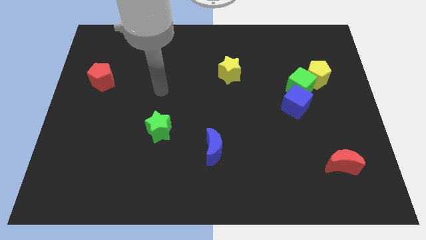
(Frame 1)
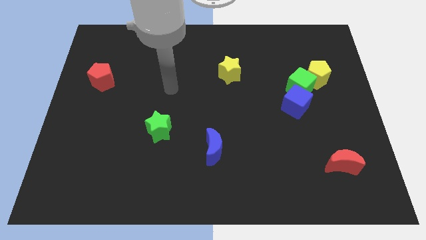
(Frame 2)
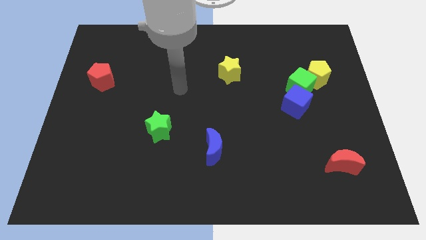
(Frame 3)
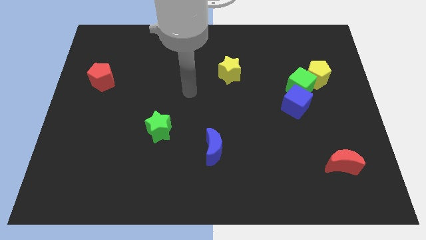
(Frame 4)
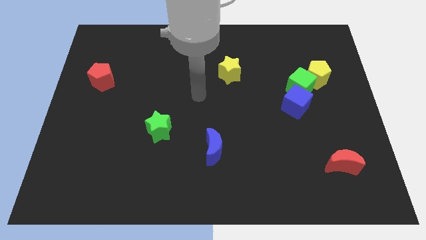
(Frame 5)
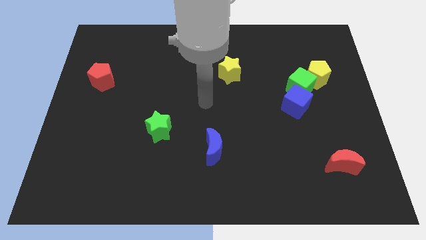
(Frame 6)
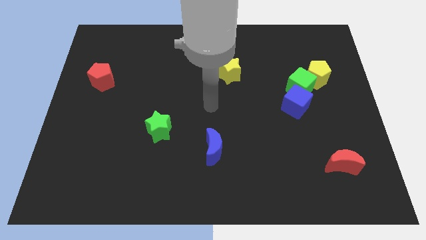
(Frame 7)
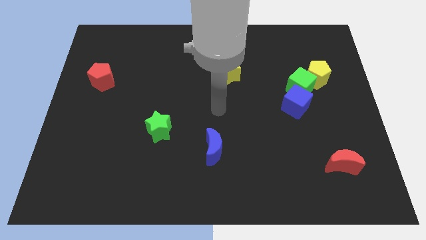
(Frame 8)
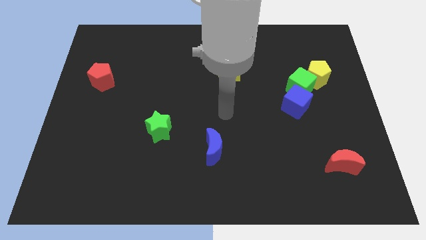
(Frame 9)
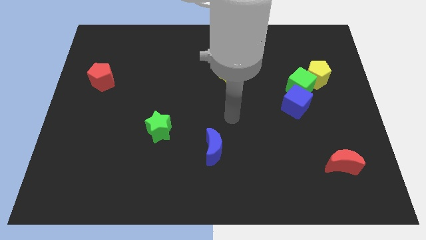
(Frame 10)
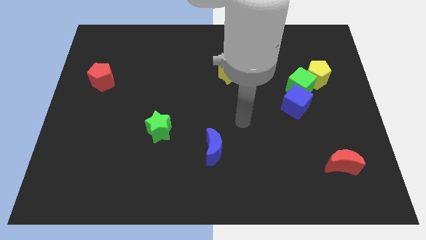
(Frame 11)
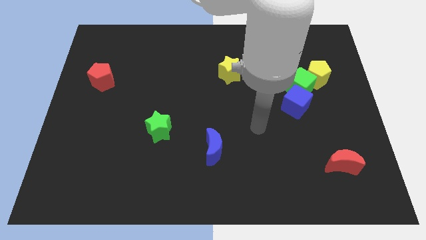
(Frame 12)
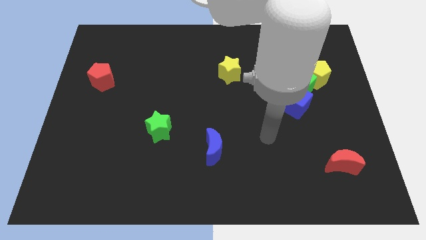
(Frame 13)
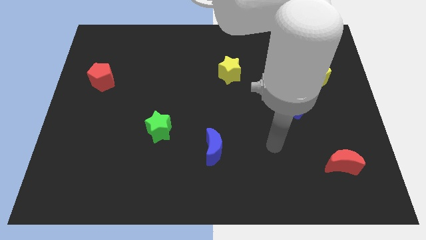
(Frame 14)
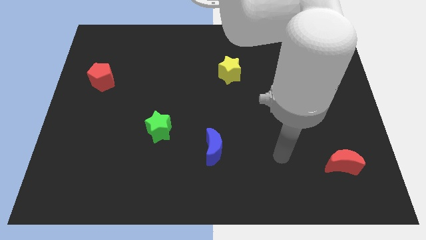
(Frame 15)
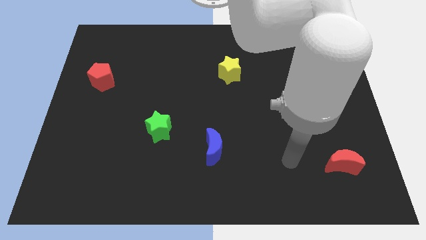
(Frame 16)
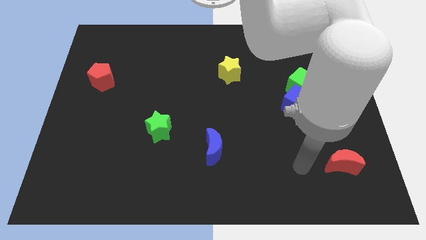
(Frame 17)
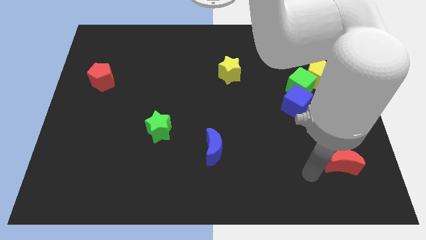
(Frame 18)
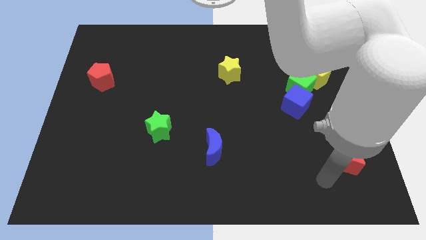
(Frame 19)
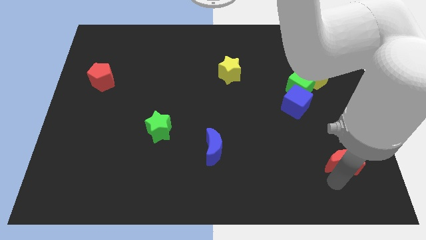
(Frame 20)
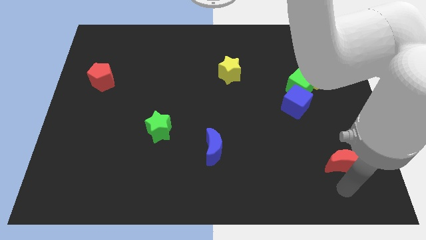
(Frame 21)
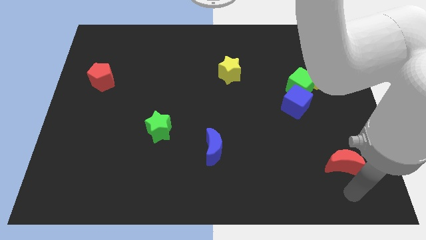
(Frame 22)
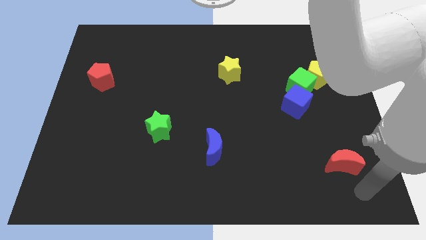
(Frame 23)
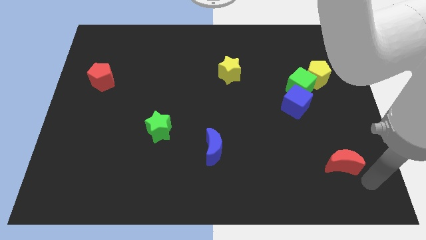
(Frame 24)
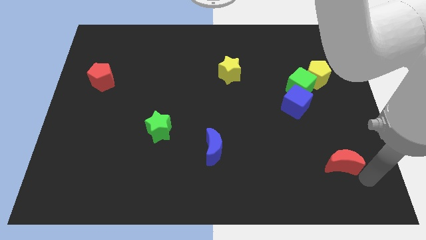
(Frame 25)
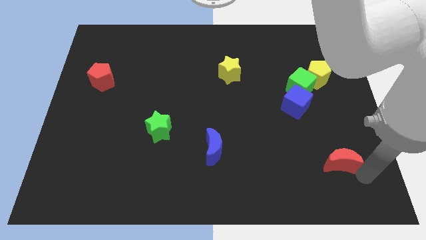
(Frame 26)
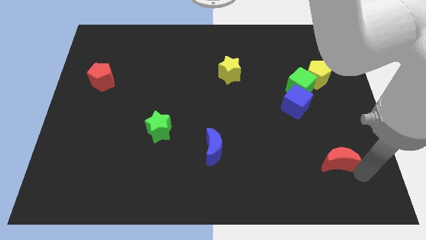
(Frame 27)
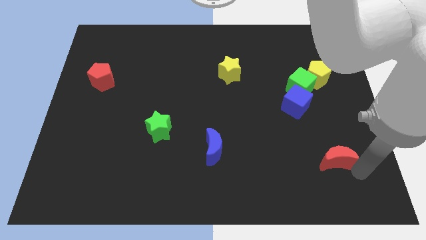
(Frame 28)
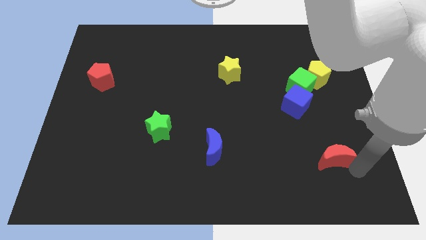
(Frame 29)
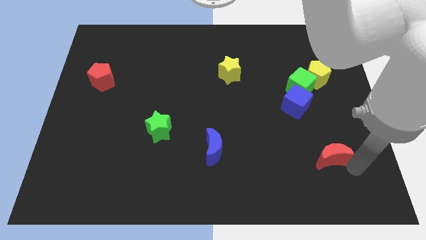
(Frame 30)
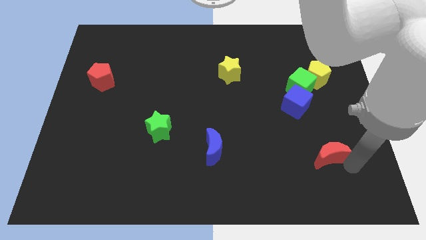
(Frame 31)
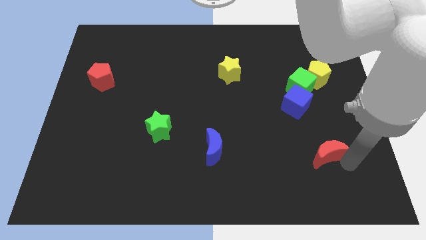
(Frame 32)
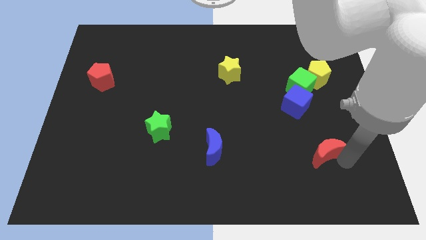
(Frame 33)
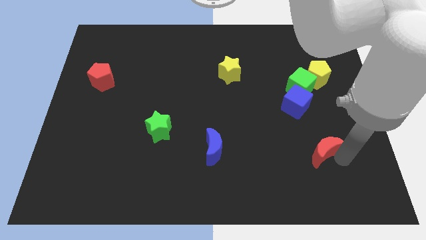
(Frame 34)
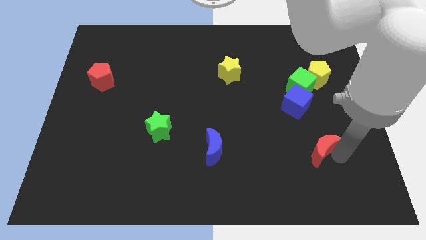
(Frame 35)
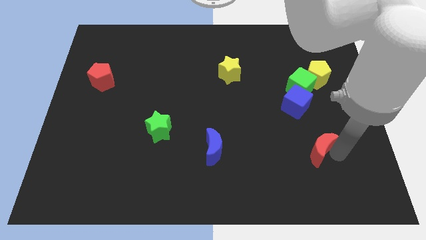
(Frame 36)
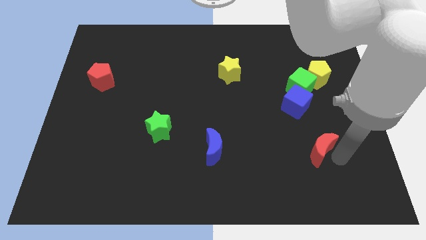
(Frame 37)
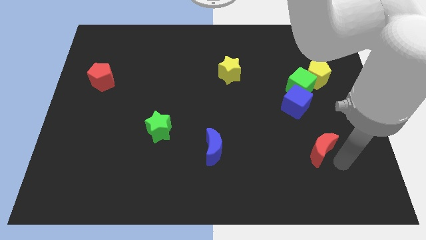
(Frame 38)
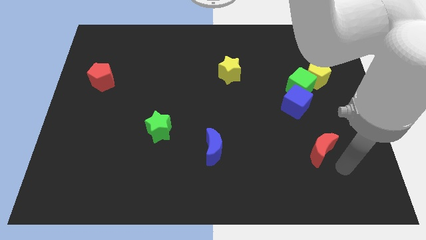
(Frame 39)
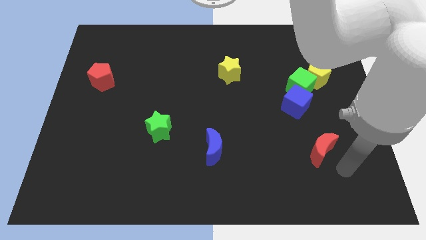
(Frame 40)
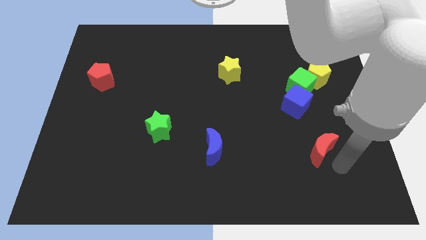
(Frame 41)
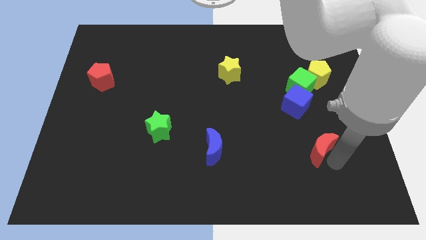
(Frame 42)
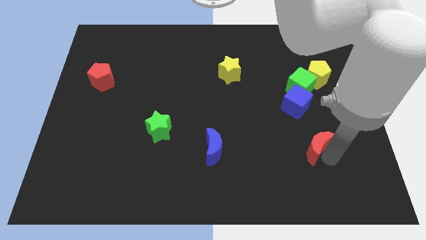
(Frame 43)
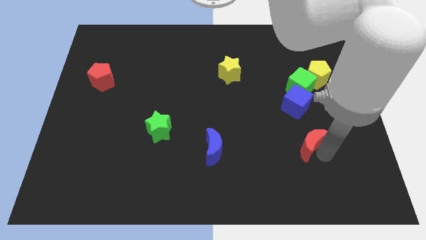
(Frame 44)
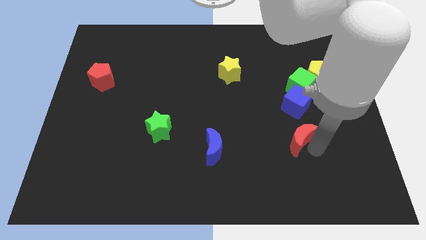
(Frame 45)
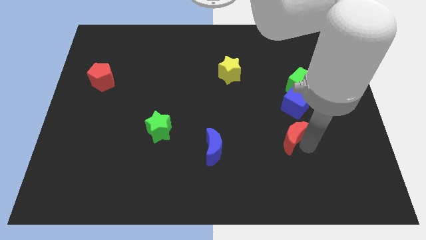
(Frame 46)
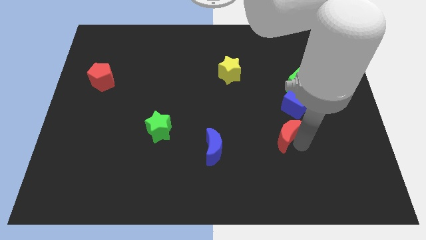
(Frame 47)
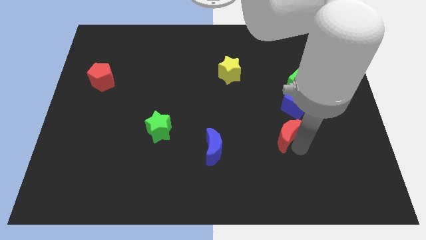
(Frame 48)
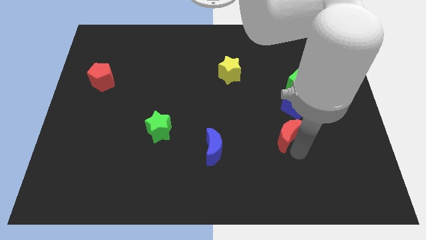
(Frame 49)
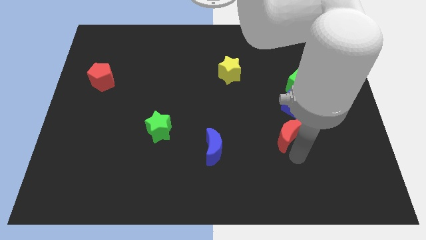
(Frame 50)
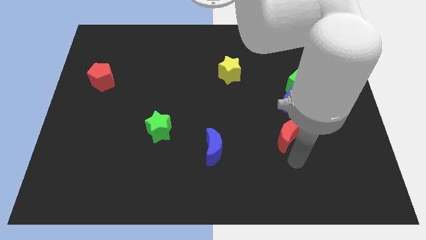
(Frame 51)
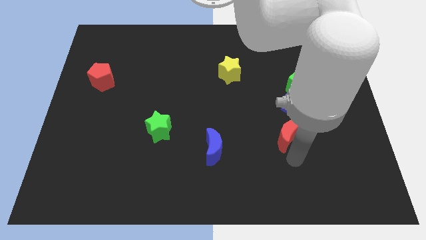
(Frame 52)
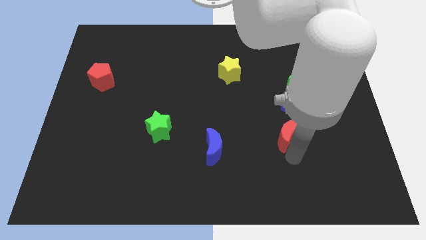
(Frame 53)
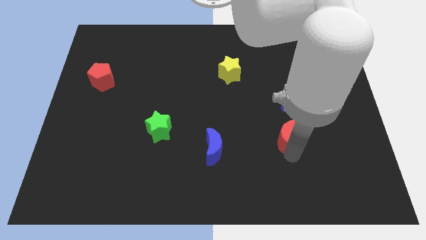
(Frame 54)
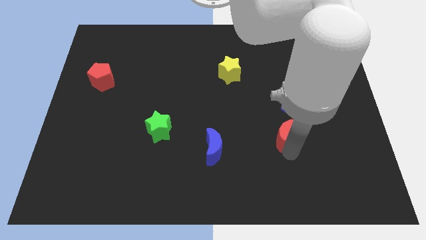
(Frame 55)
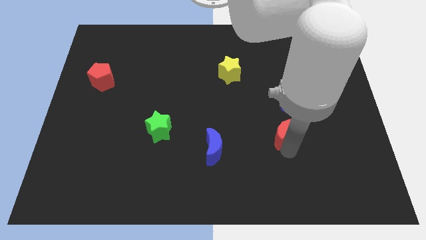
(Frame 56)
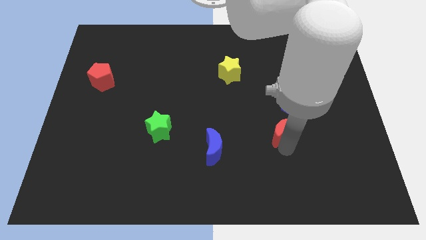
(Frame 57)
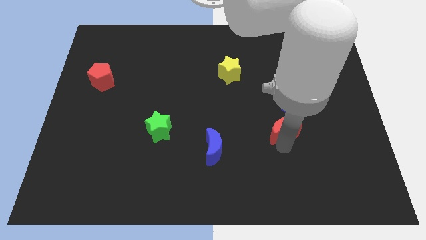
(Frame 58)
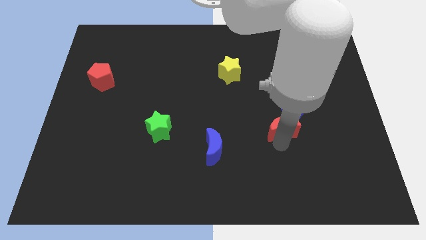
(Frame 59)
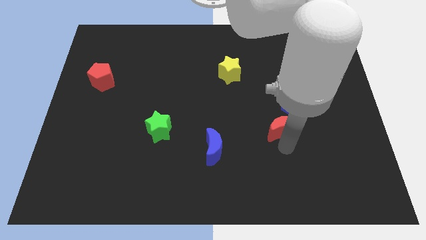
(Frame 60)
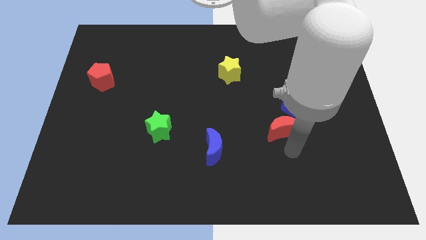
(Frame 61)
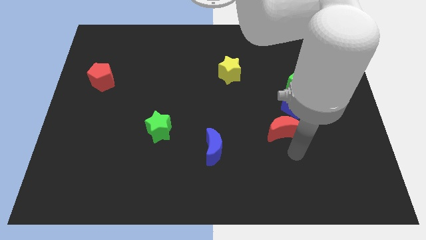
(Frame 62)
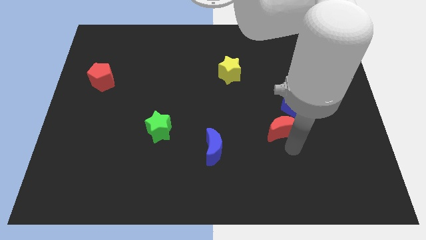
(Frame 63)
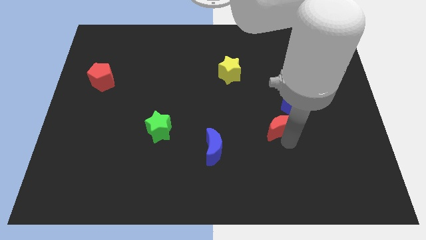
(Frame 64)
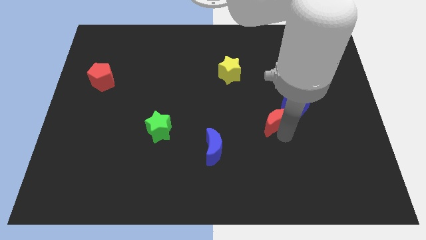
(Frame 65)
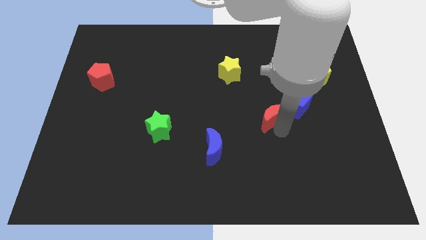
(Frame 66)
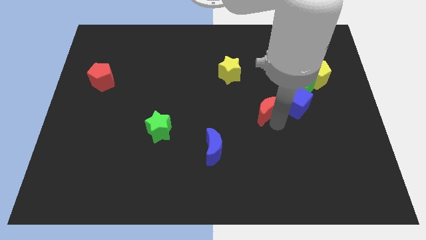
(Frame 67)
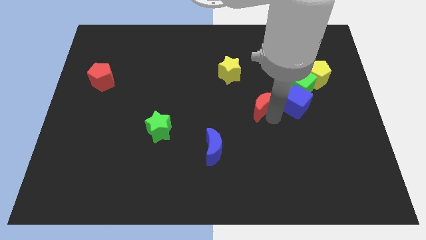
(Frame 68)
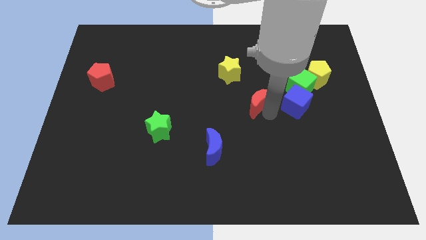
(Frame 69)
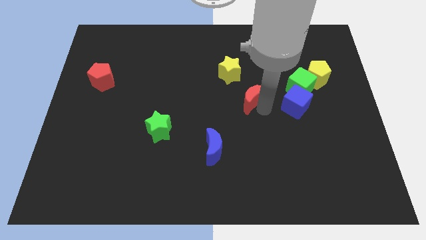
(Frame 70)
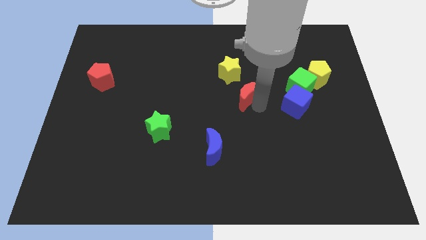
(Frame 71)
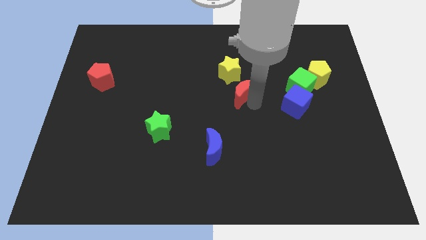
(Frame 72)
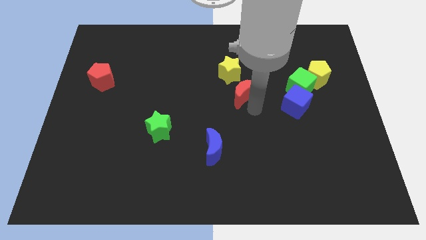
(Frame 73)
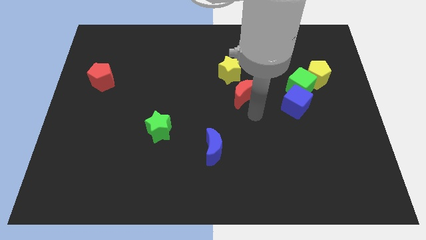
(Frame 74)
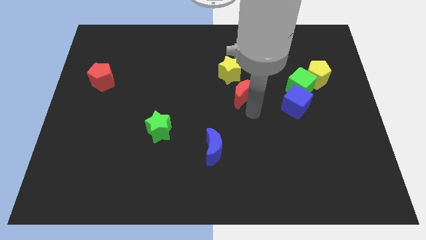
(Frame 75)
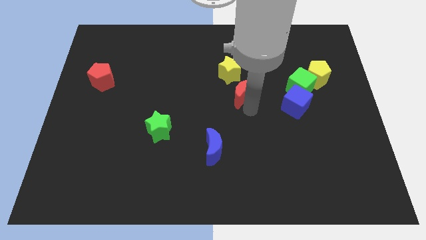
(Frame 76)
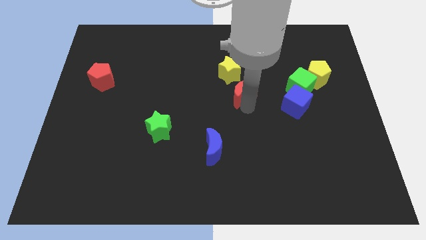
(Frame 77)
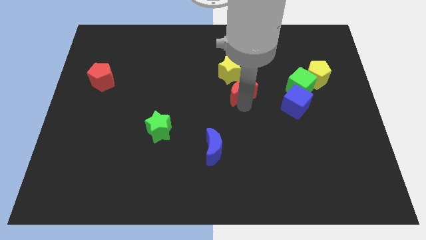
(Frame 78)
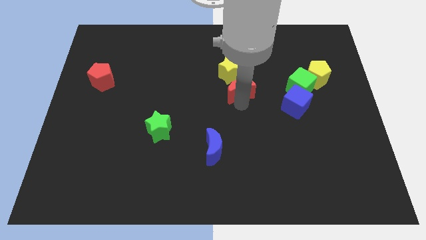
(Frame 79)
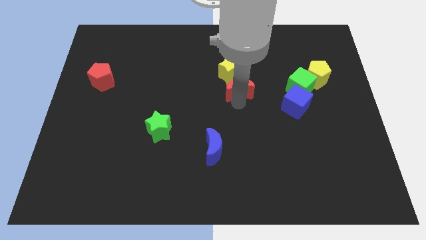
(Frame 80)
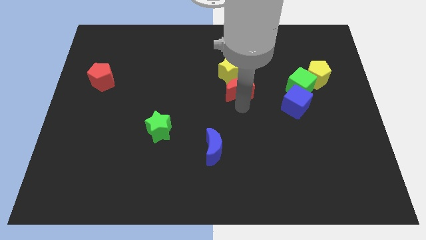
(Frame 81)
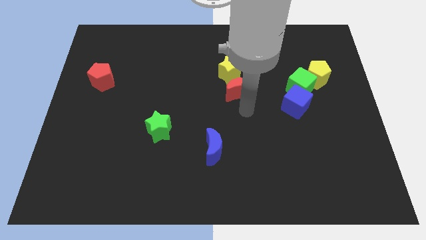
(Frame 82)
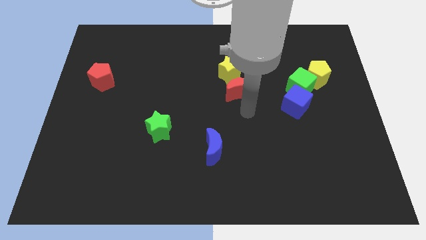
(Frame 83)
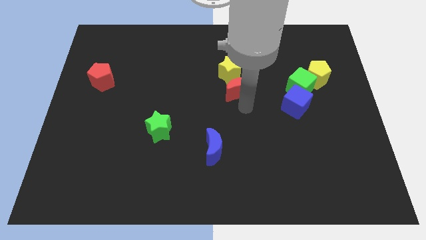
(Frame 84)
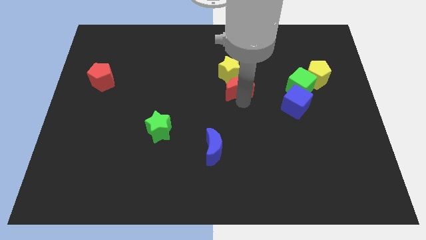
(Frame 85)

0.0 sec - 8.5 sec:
push the red moon towards the yellow star
